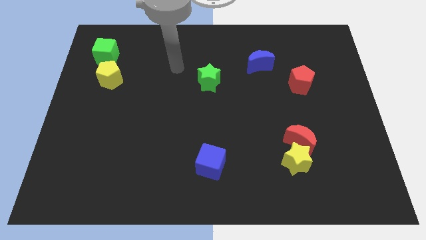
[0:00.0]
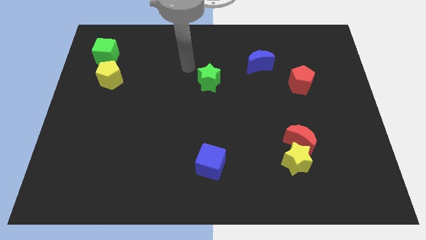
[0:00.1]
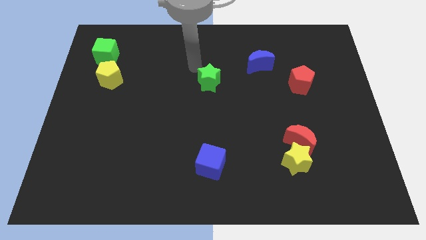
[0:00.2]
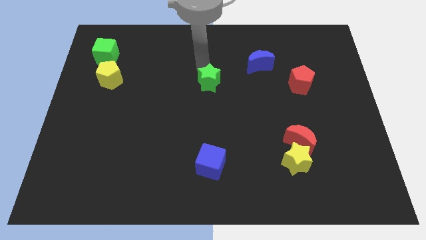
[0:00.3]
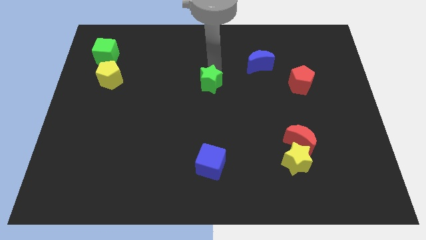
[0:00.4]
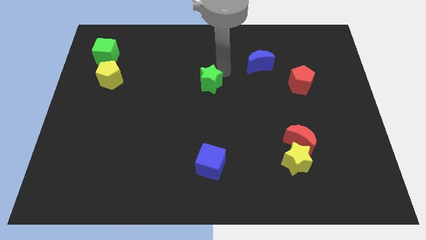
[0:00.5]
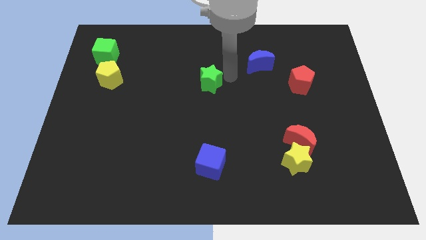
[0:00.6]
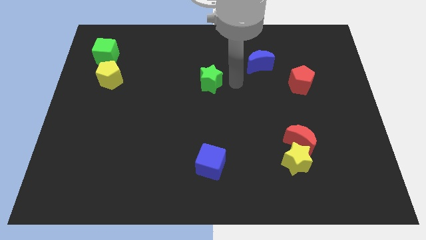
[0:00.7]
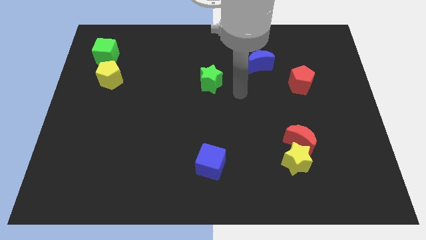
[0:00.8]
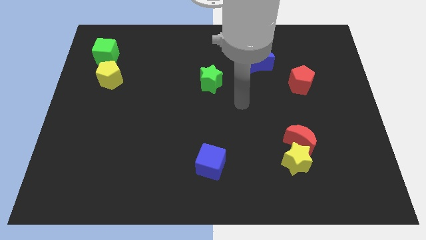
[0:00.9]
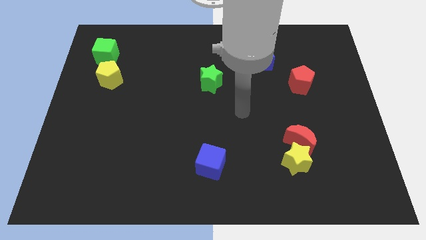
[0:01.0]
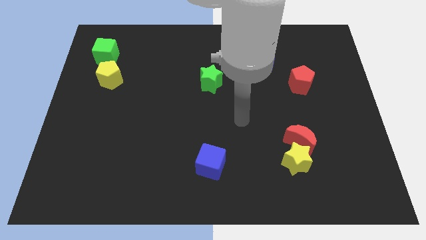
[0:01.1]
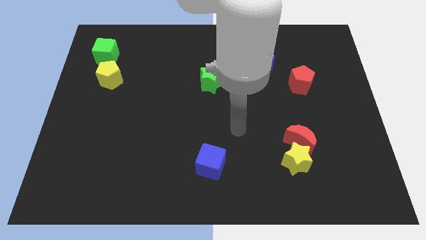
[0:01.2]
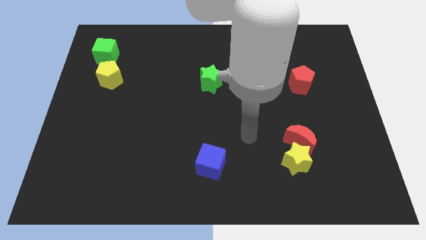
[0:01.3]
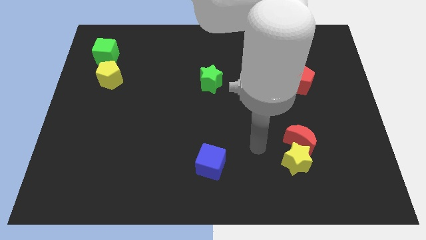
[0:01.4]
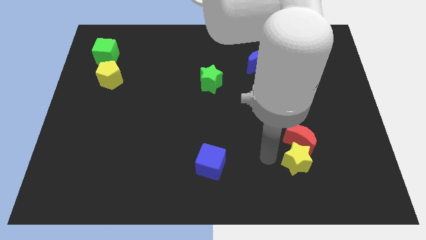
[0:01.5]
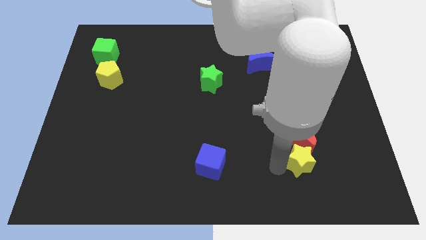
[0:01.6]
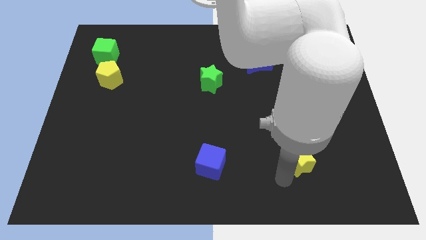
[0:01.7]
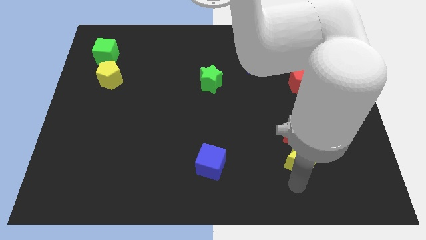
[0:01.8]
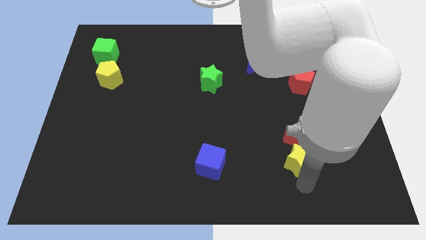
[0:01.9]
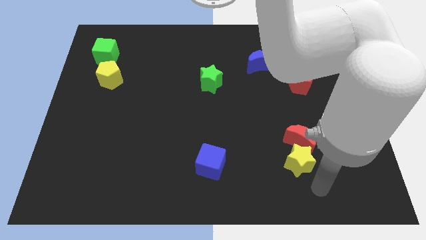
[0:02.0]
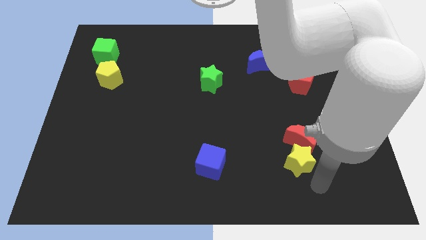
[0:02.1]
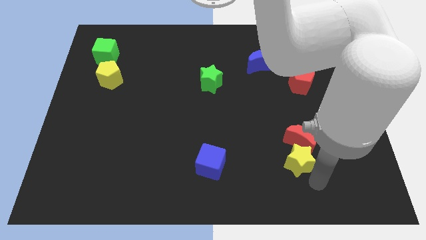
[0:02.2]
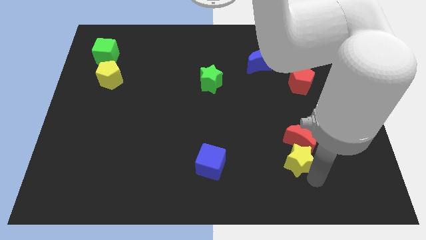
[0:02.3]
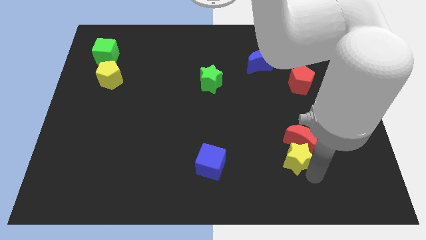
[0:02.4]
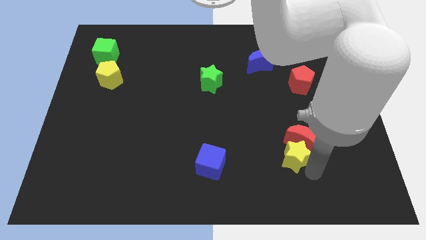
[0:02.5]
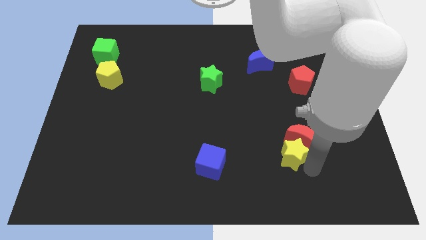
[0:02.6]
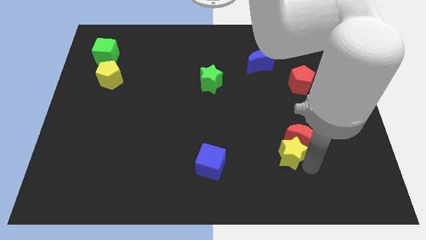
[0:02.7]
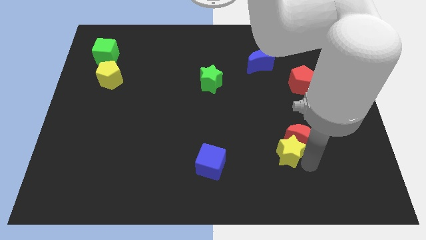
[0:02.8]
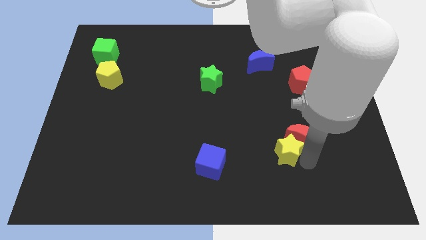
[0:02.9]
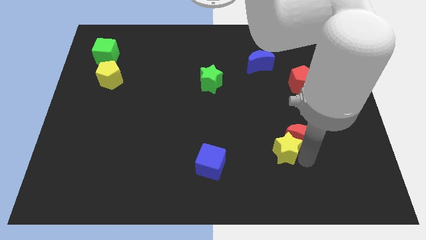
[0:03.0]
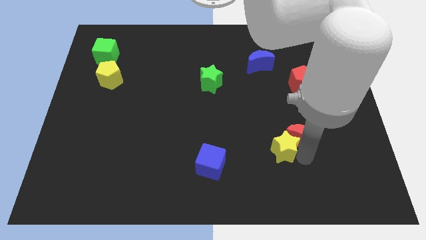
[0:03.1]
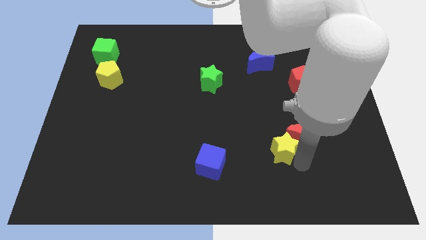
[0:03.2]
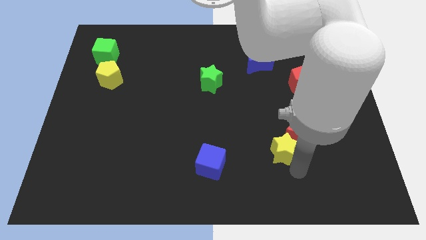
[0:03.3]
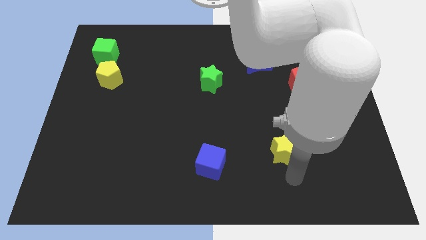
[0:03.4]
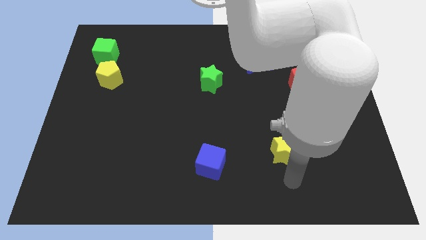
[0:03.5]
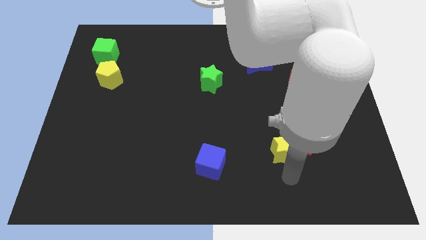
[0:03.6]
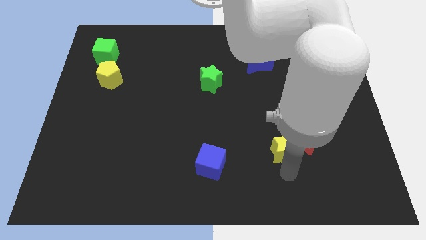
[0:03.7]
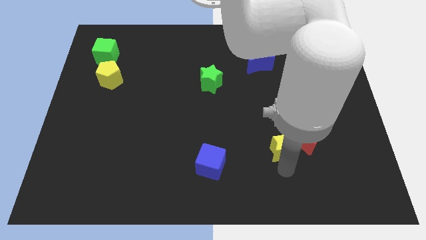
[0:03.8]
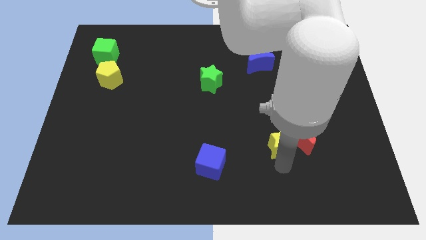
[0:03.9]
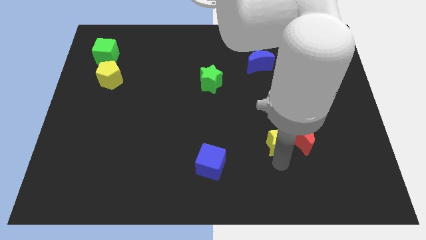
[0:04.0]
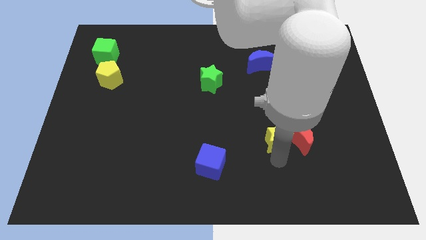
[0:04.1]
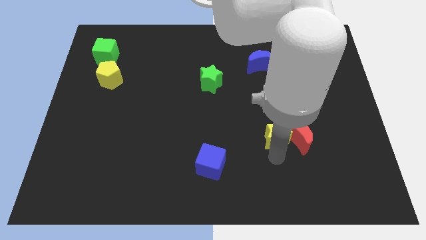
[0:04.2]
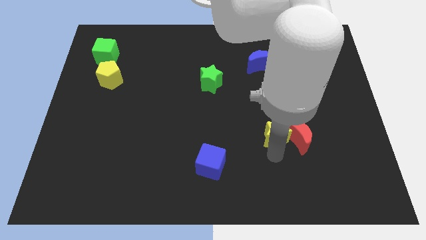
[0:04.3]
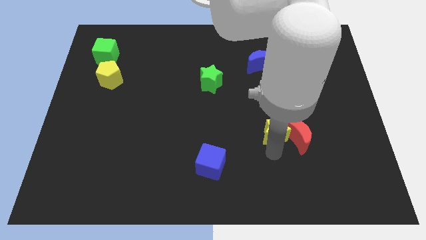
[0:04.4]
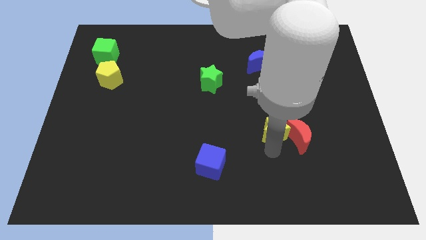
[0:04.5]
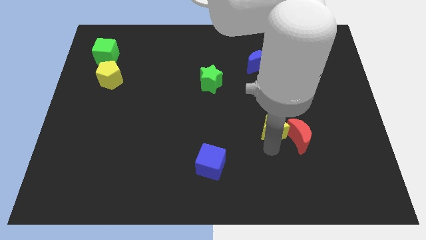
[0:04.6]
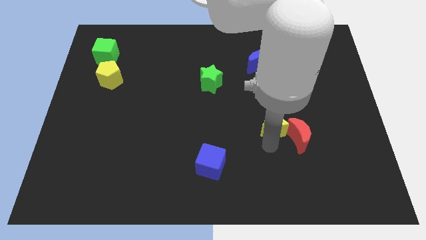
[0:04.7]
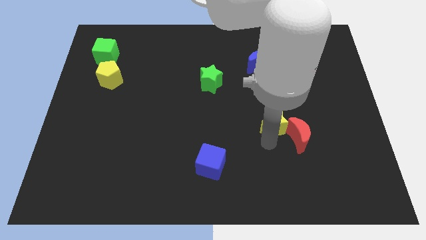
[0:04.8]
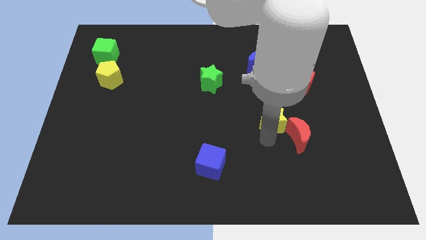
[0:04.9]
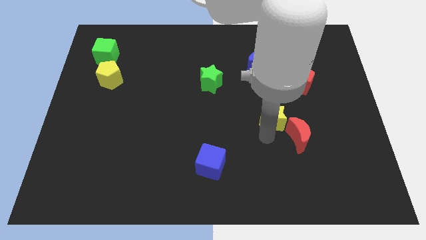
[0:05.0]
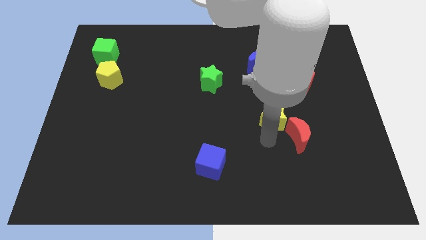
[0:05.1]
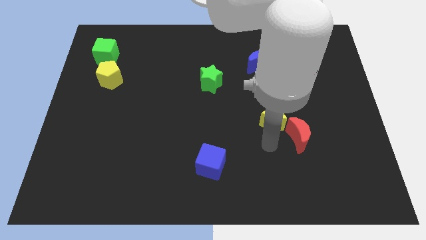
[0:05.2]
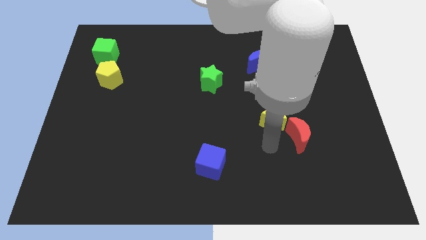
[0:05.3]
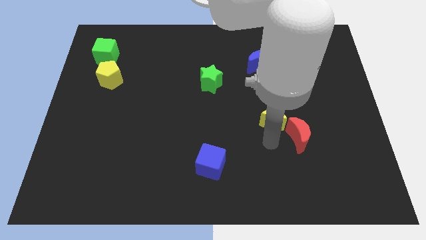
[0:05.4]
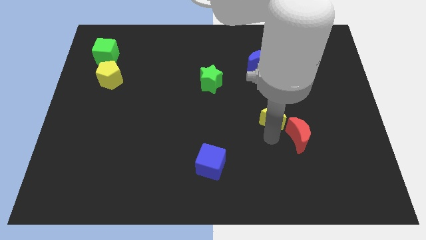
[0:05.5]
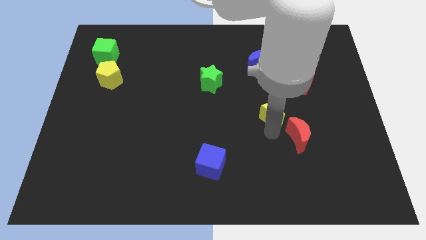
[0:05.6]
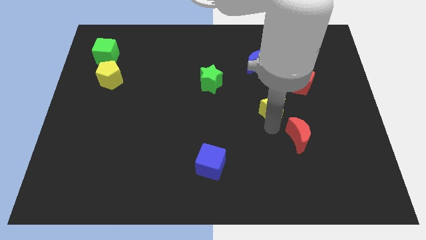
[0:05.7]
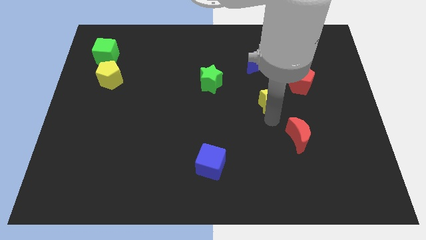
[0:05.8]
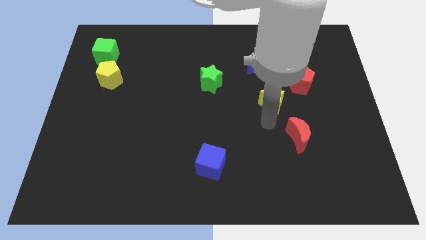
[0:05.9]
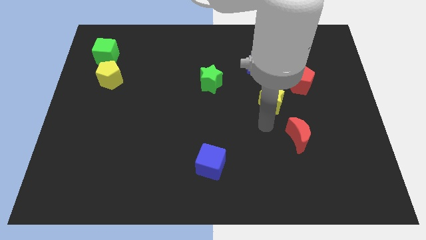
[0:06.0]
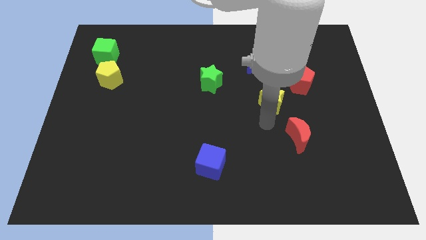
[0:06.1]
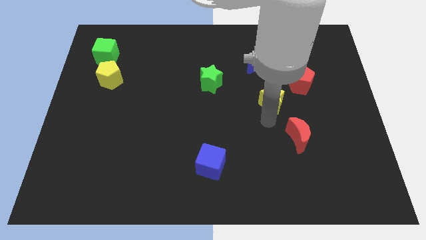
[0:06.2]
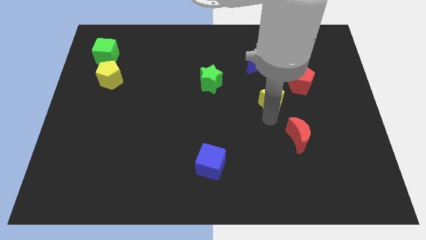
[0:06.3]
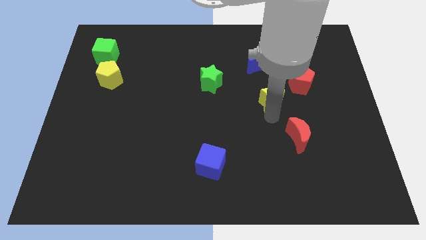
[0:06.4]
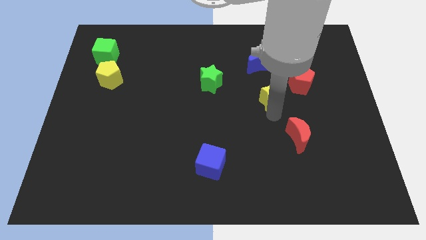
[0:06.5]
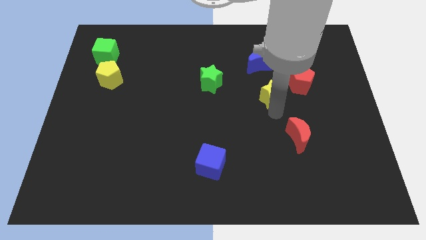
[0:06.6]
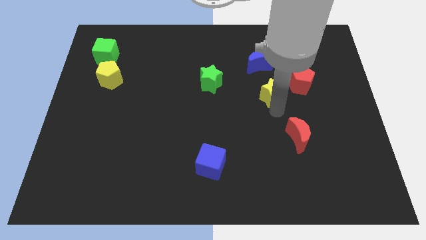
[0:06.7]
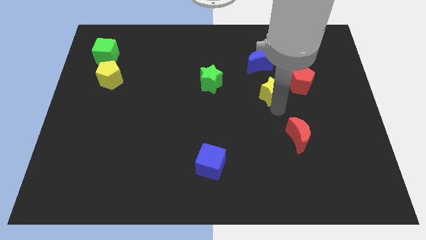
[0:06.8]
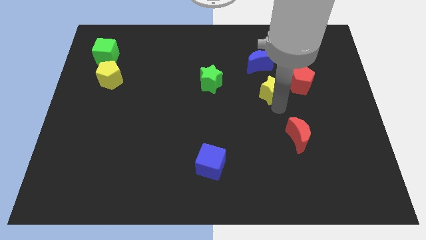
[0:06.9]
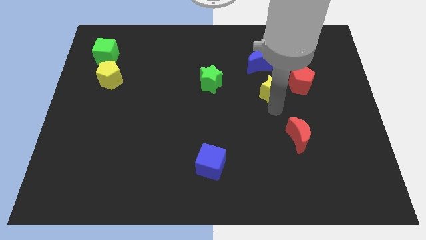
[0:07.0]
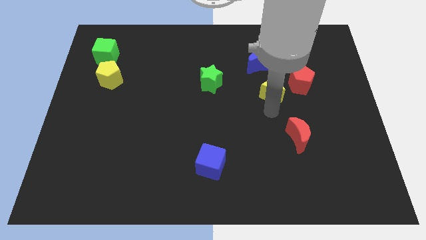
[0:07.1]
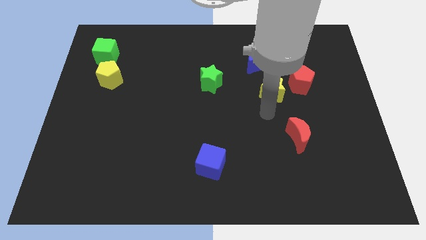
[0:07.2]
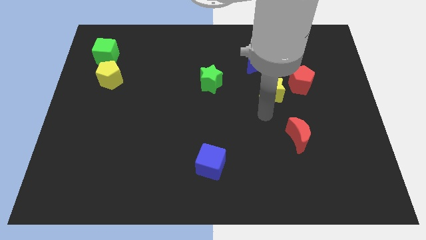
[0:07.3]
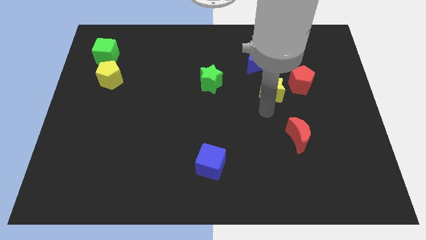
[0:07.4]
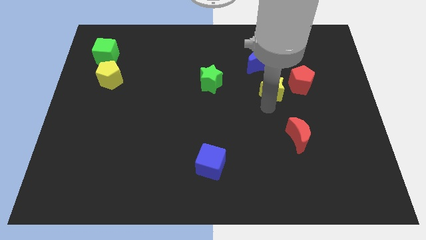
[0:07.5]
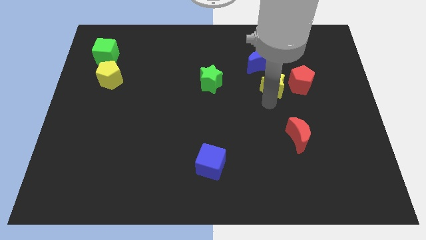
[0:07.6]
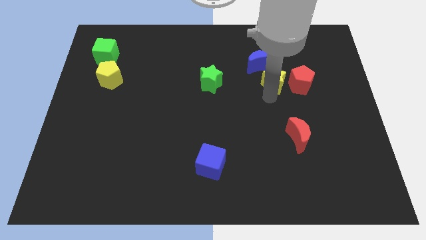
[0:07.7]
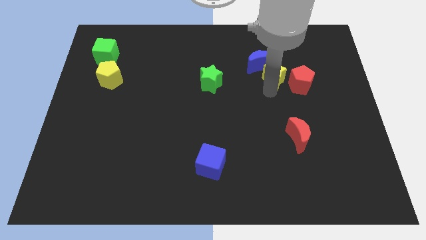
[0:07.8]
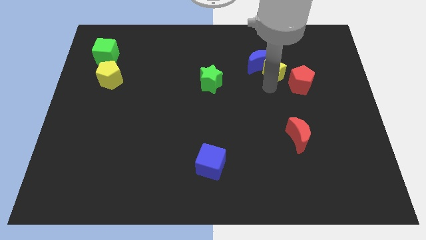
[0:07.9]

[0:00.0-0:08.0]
move the yellow star to the right side of the blue moon
